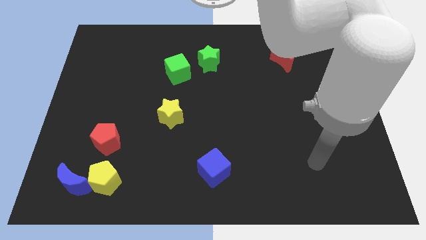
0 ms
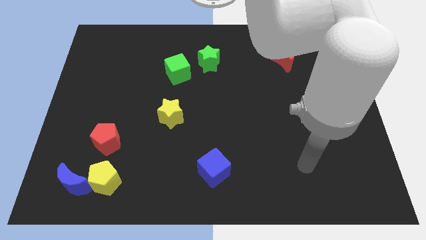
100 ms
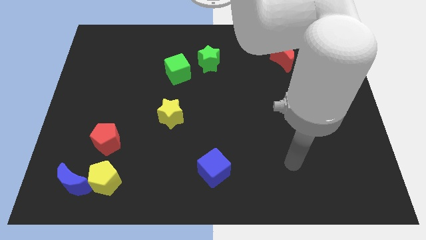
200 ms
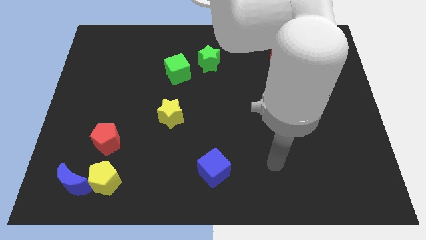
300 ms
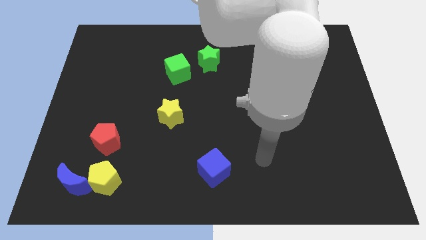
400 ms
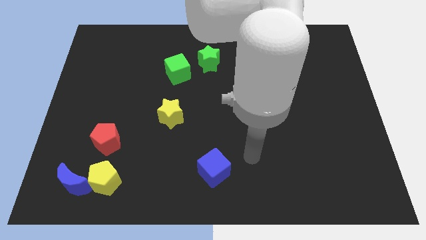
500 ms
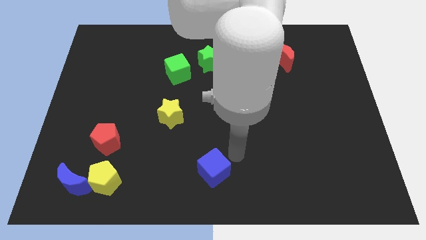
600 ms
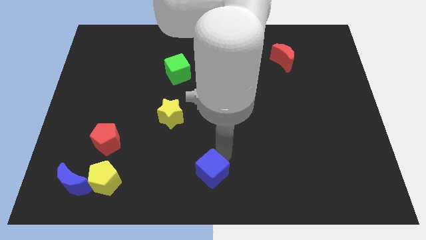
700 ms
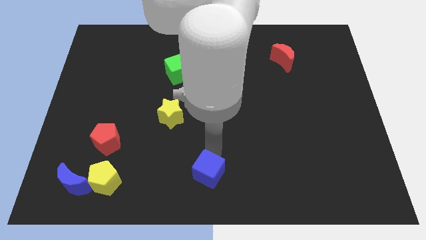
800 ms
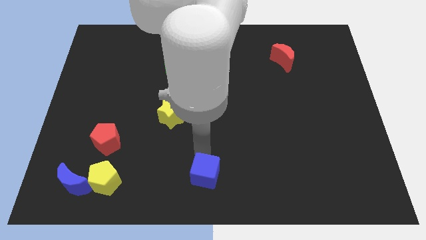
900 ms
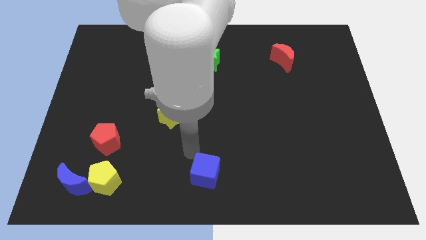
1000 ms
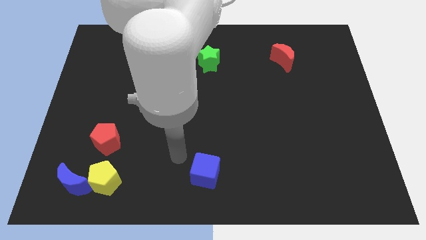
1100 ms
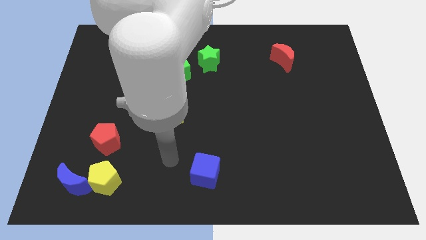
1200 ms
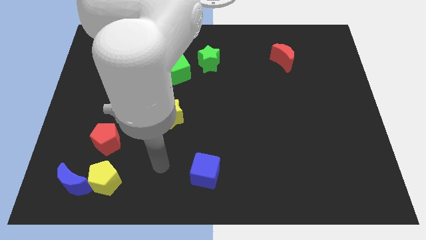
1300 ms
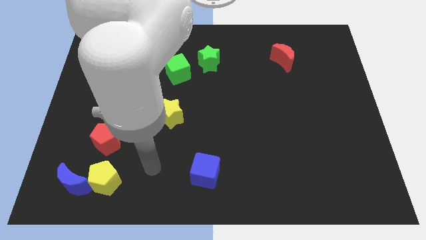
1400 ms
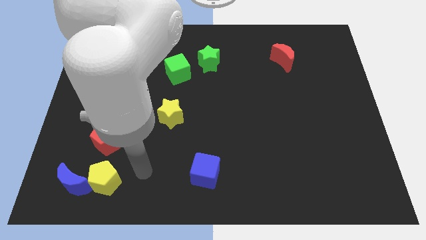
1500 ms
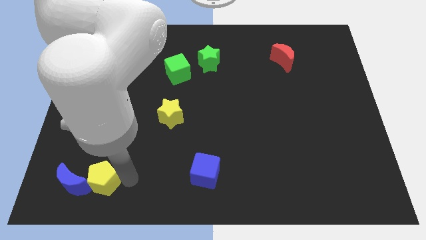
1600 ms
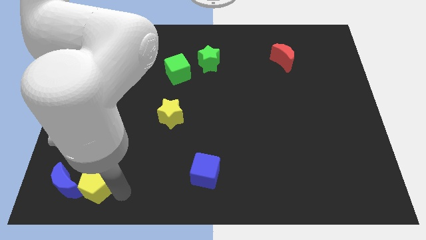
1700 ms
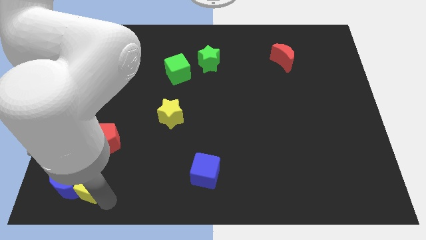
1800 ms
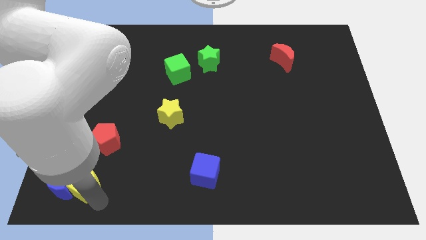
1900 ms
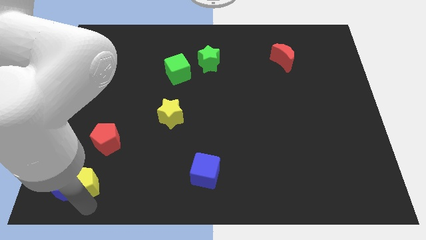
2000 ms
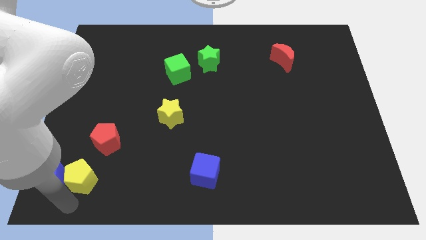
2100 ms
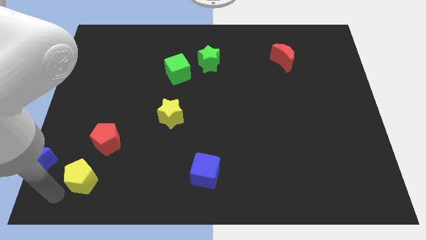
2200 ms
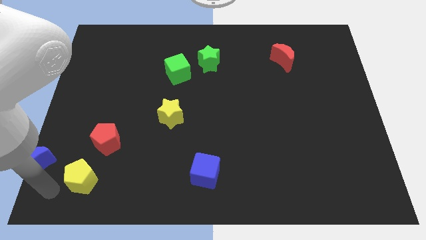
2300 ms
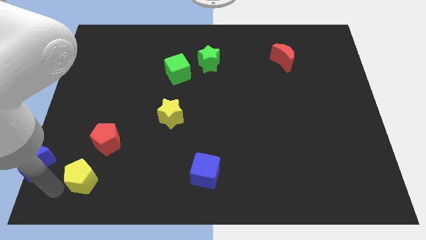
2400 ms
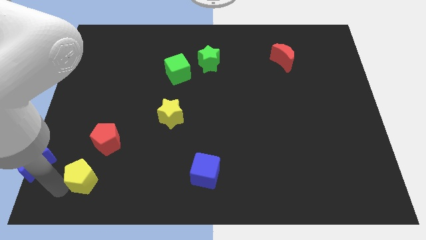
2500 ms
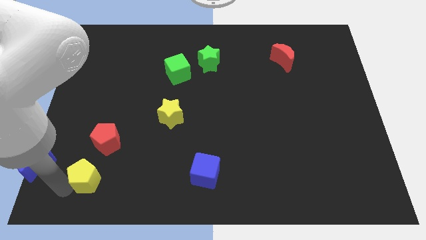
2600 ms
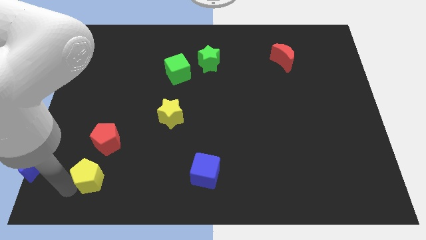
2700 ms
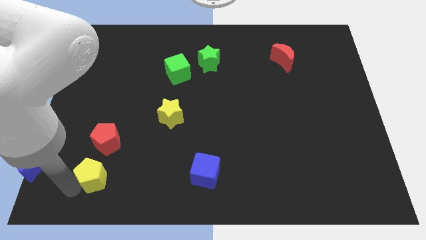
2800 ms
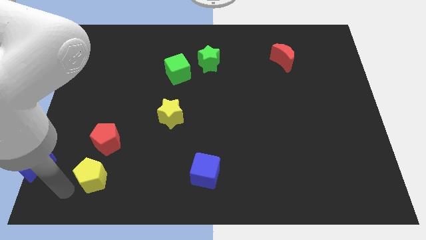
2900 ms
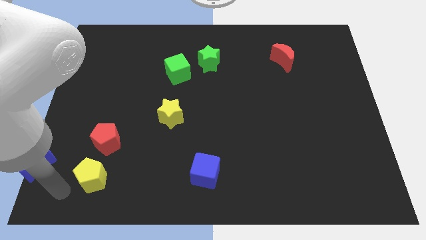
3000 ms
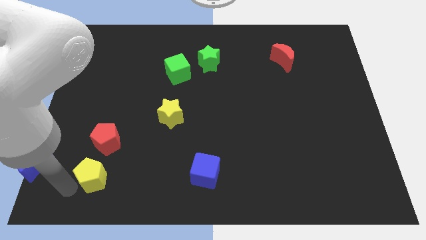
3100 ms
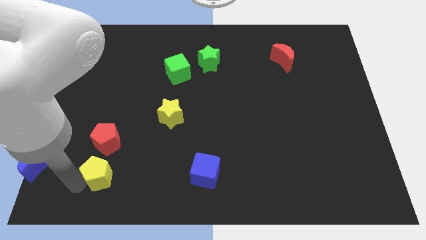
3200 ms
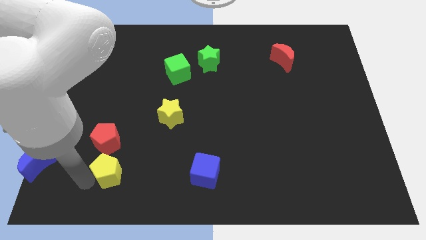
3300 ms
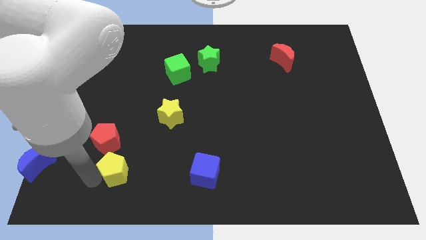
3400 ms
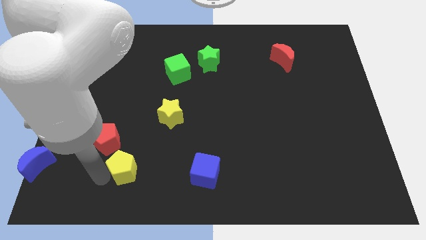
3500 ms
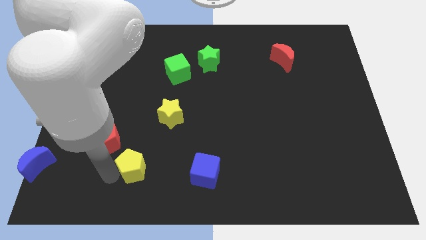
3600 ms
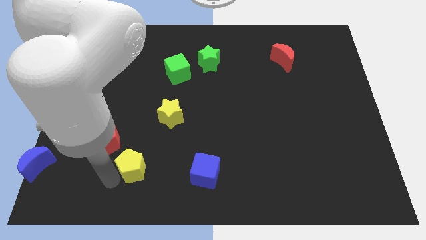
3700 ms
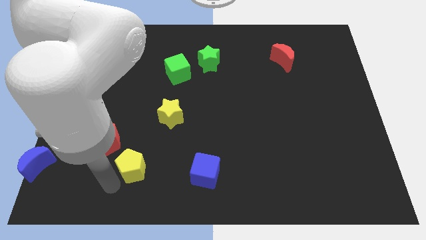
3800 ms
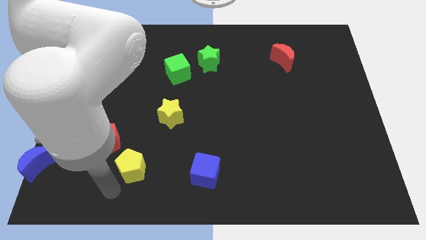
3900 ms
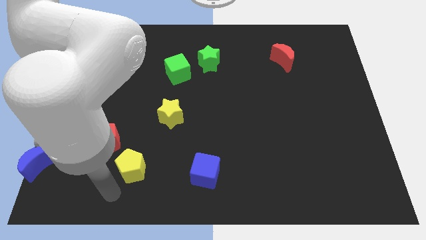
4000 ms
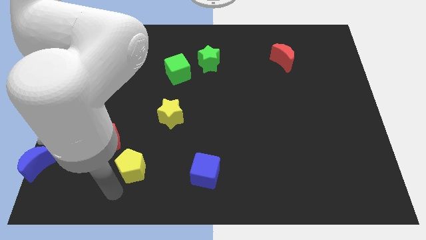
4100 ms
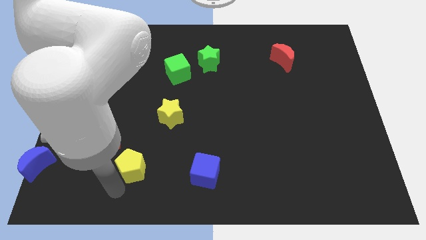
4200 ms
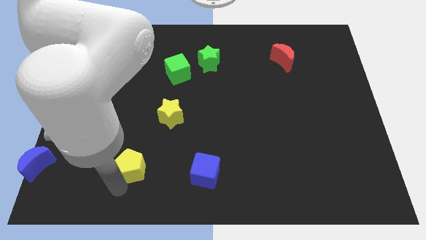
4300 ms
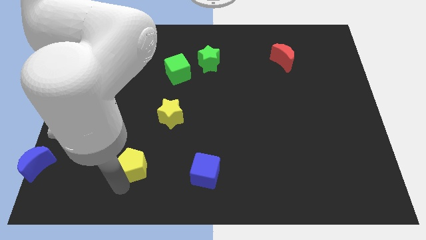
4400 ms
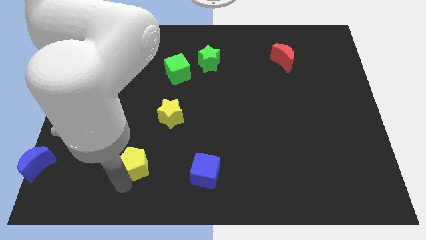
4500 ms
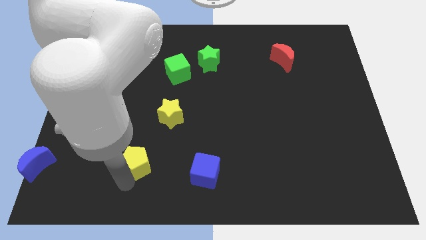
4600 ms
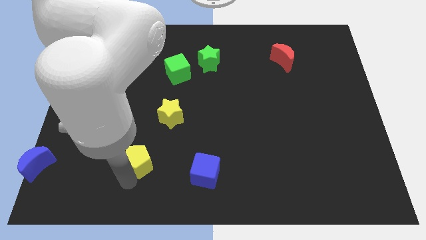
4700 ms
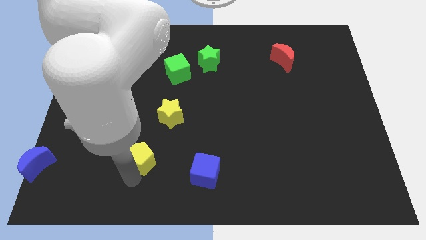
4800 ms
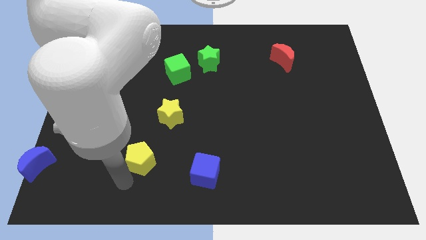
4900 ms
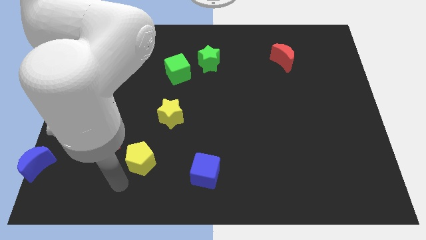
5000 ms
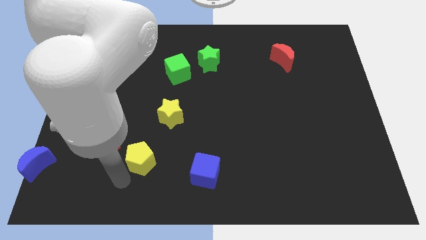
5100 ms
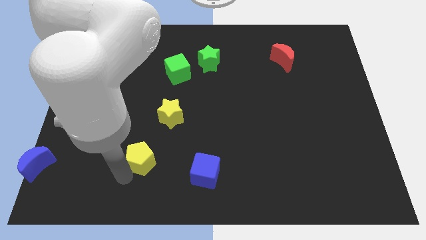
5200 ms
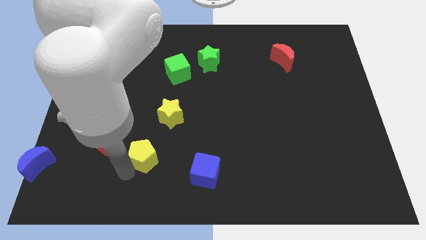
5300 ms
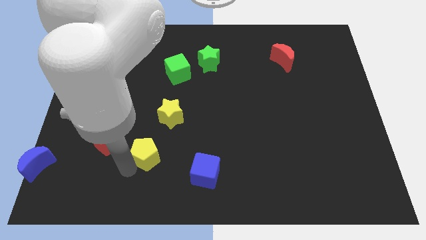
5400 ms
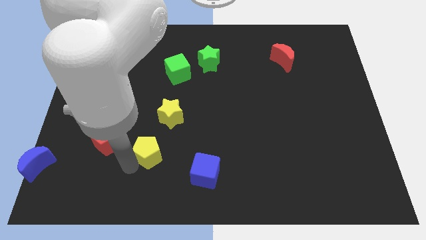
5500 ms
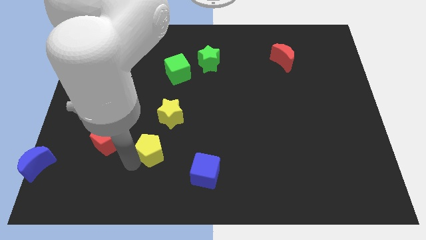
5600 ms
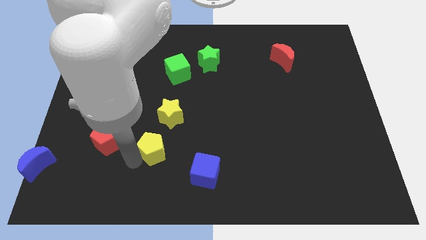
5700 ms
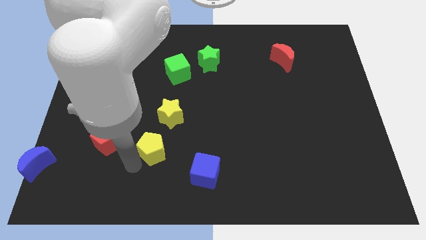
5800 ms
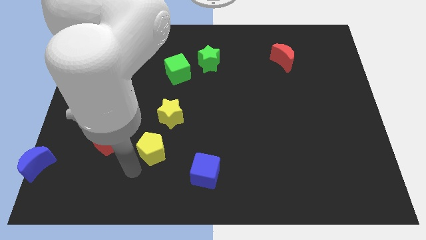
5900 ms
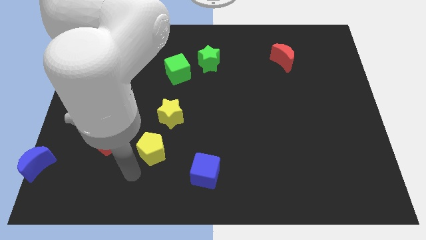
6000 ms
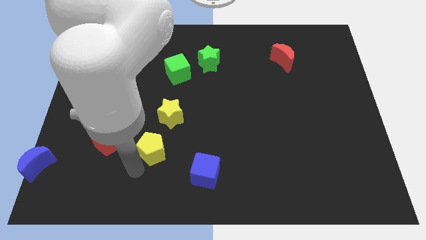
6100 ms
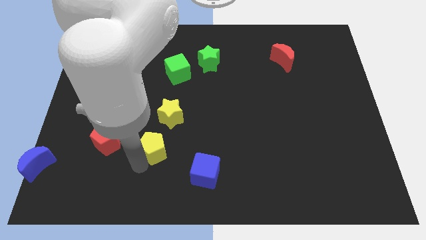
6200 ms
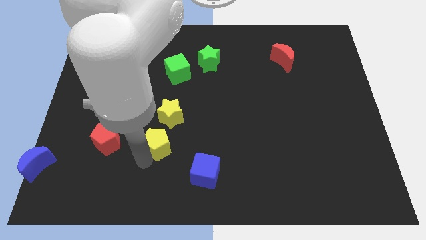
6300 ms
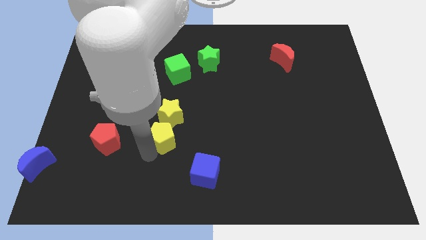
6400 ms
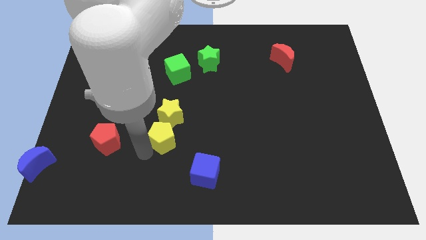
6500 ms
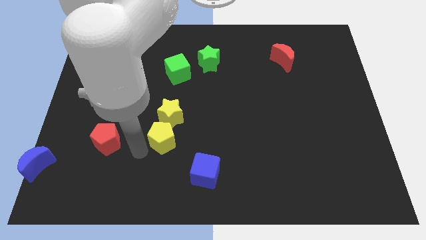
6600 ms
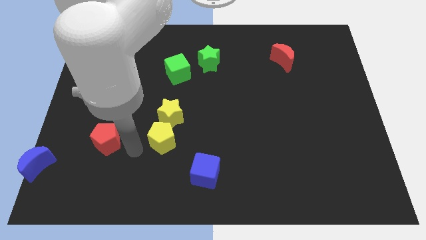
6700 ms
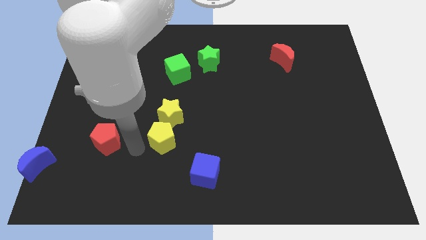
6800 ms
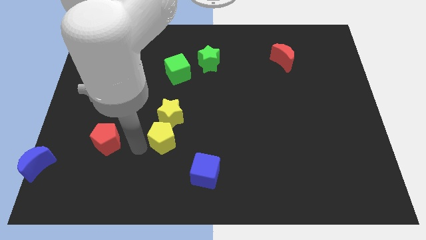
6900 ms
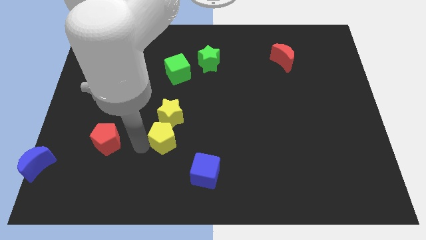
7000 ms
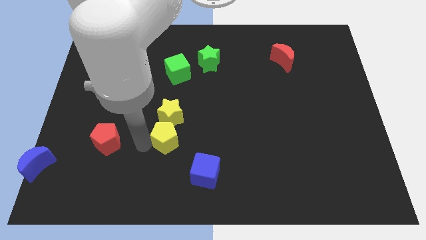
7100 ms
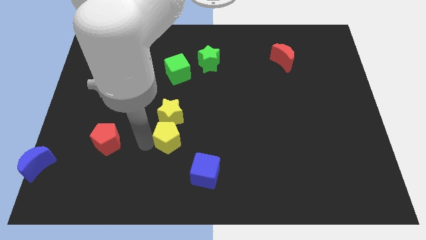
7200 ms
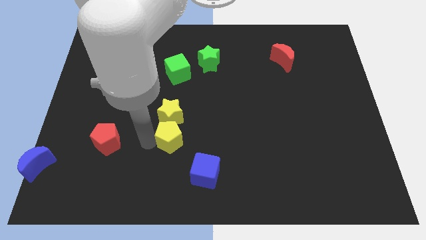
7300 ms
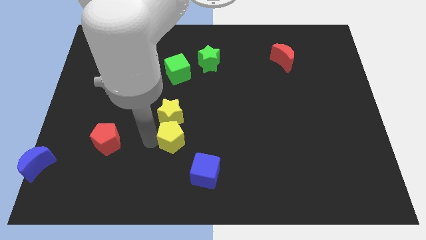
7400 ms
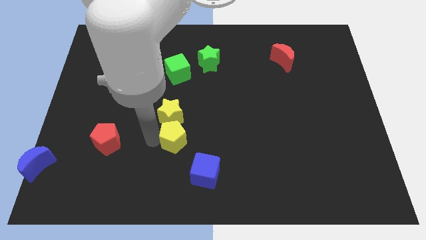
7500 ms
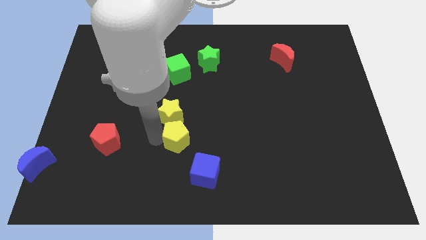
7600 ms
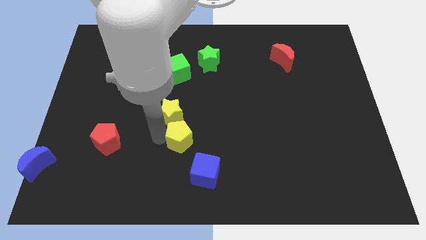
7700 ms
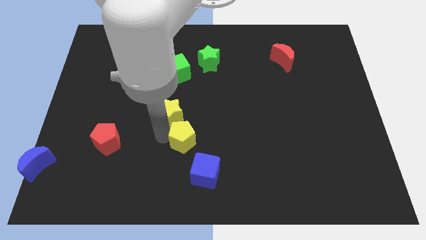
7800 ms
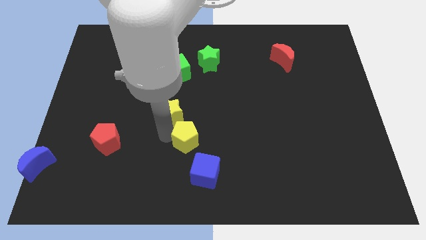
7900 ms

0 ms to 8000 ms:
put the yellow pentagon to the middle
